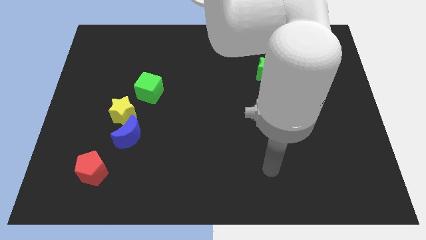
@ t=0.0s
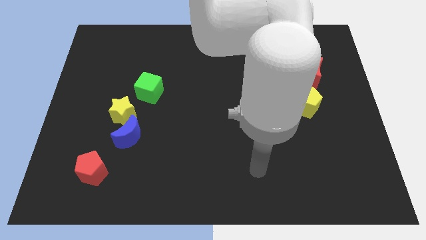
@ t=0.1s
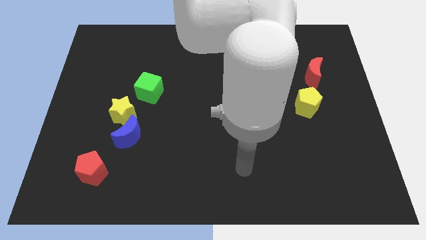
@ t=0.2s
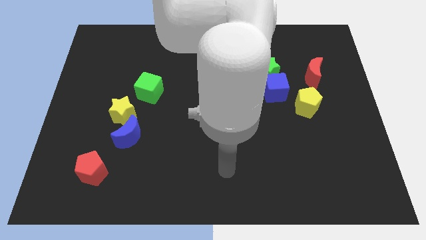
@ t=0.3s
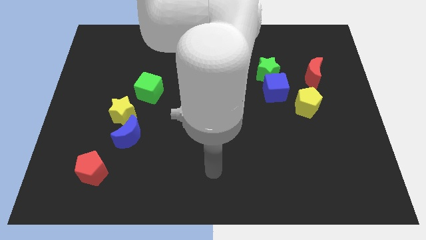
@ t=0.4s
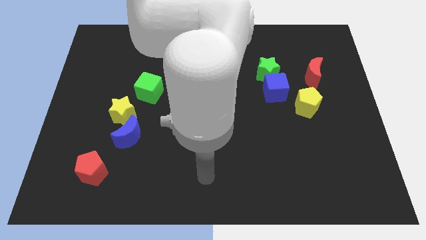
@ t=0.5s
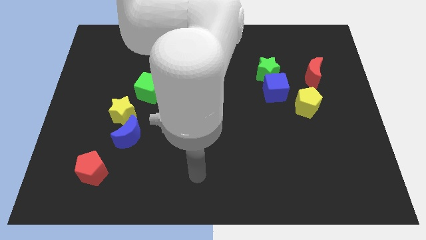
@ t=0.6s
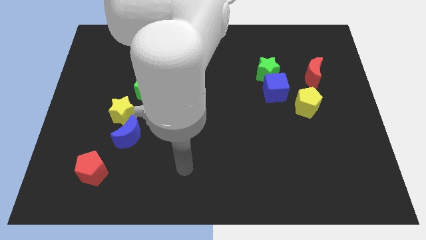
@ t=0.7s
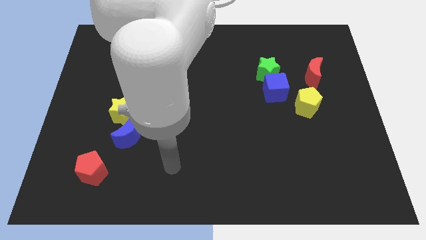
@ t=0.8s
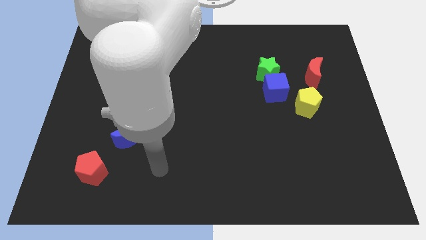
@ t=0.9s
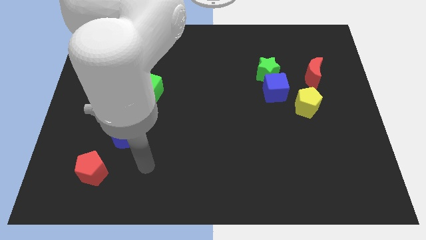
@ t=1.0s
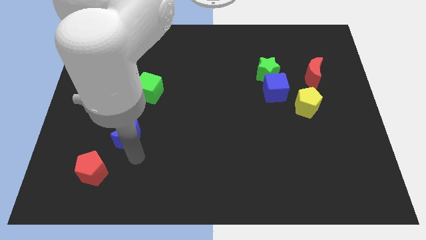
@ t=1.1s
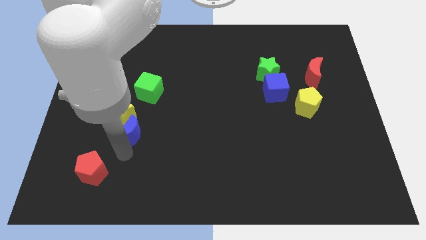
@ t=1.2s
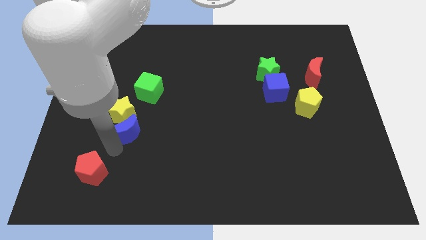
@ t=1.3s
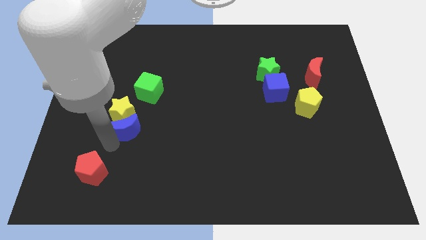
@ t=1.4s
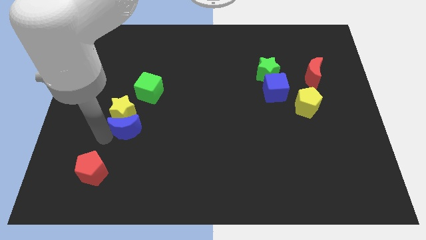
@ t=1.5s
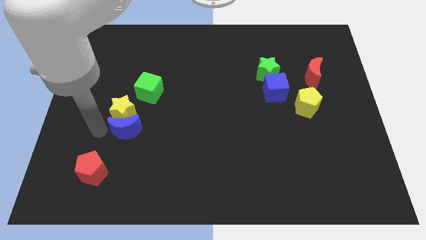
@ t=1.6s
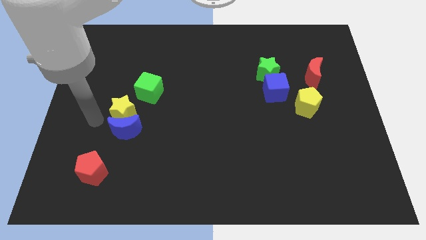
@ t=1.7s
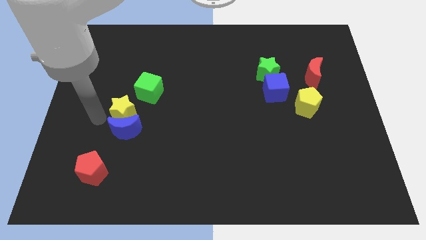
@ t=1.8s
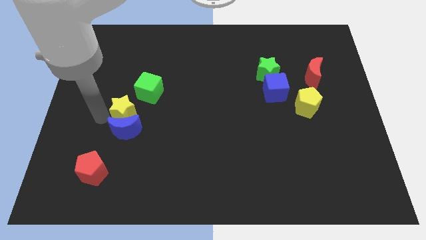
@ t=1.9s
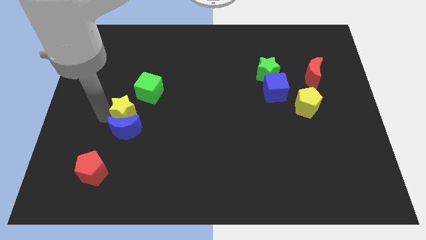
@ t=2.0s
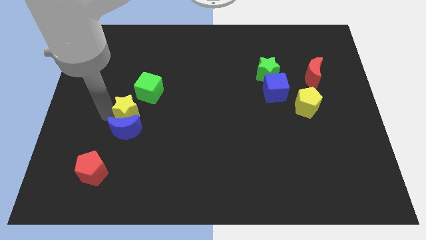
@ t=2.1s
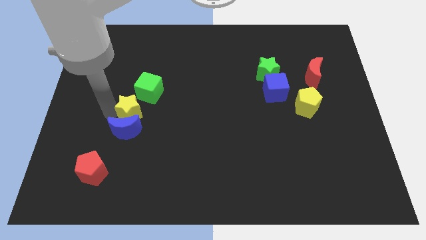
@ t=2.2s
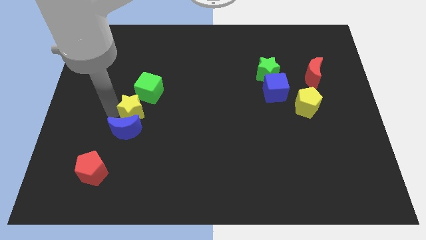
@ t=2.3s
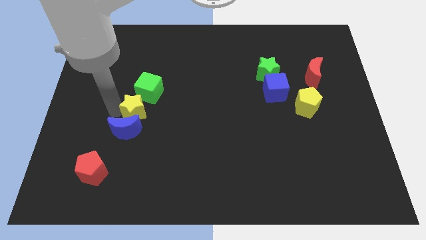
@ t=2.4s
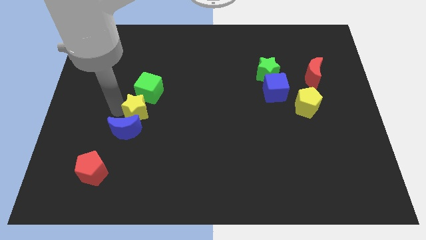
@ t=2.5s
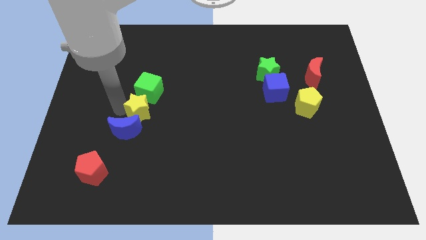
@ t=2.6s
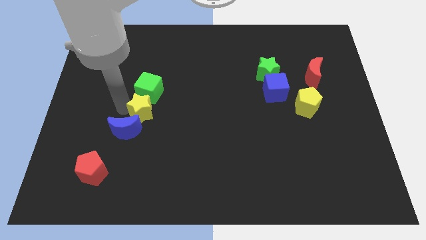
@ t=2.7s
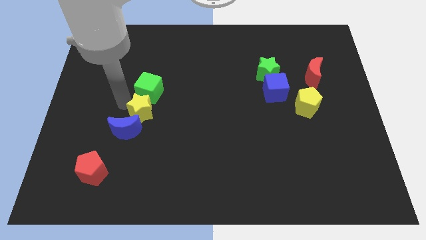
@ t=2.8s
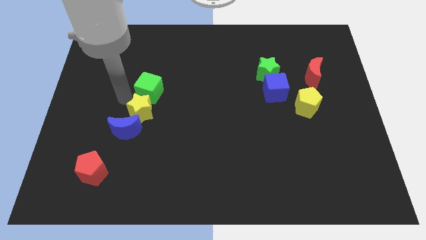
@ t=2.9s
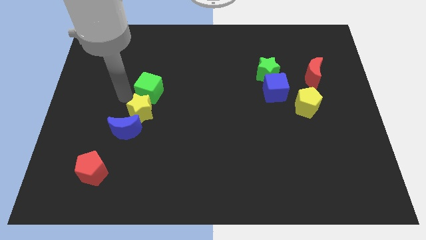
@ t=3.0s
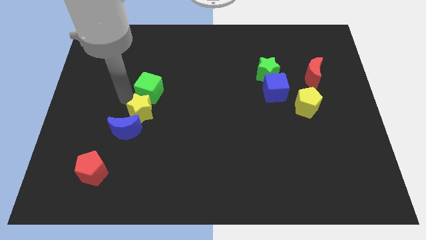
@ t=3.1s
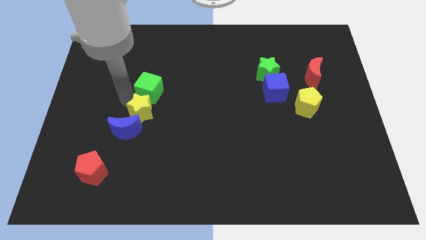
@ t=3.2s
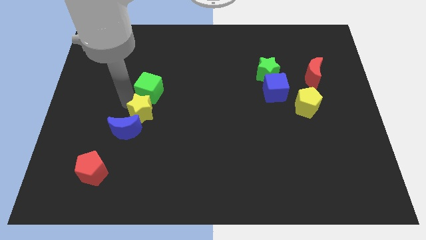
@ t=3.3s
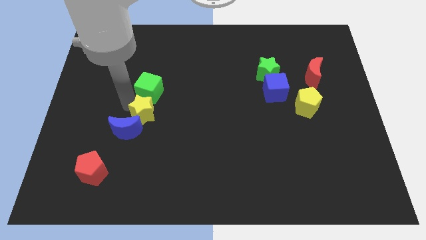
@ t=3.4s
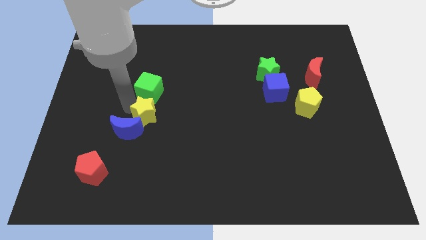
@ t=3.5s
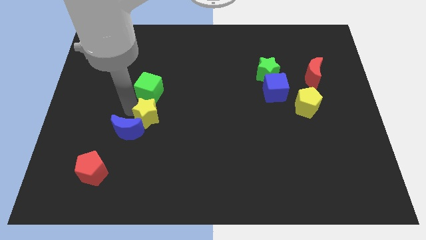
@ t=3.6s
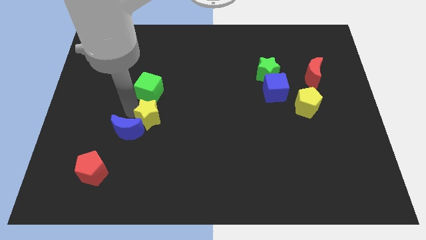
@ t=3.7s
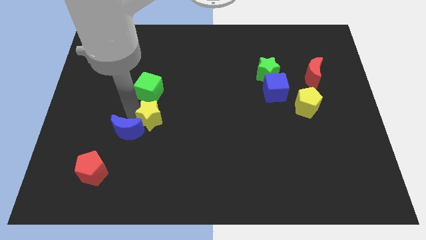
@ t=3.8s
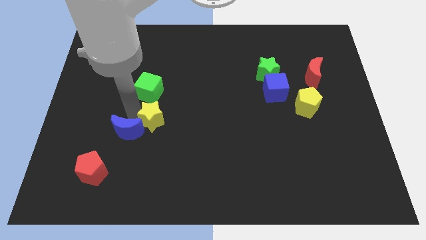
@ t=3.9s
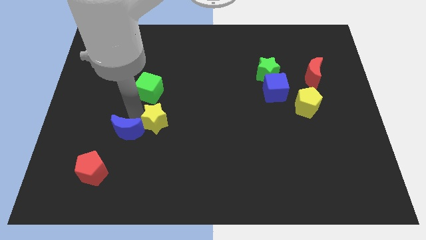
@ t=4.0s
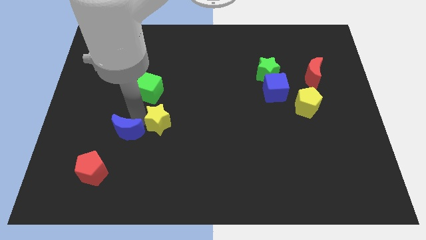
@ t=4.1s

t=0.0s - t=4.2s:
move the yellow star downwards and right a little

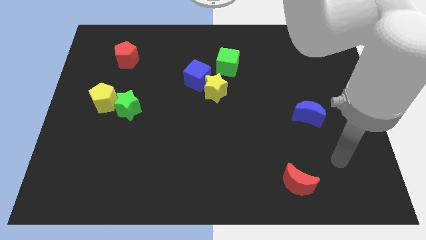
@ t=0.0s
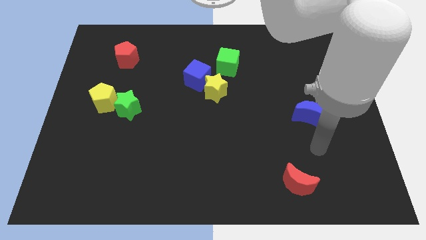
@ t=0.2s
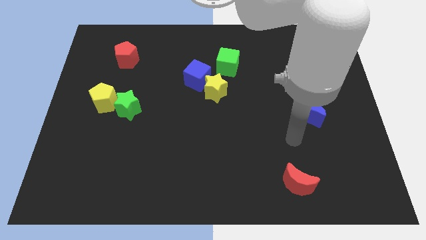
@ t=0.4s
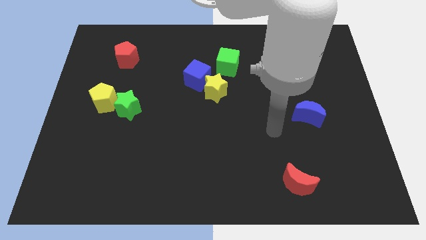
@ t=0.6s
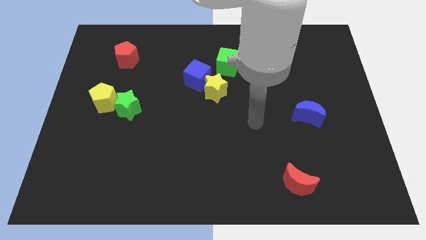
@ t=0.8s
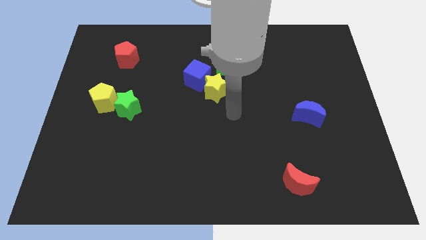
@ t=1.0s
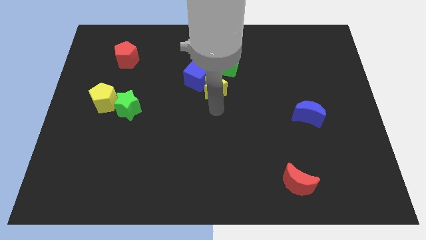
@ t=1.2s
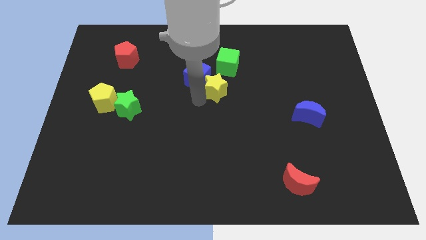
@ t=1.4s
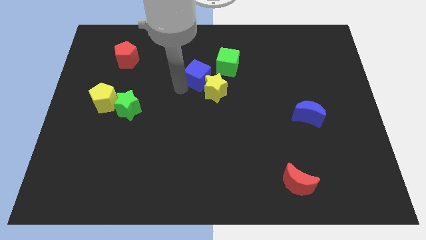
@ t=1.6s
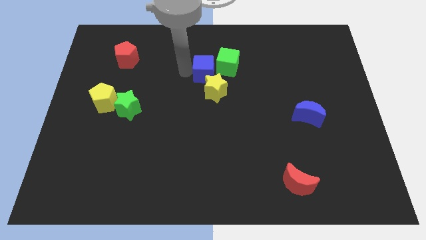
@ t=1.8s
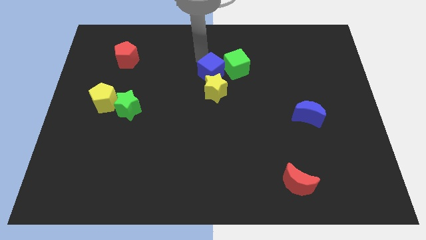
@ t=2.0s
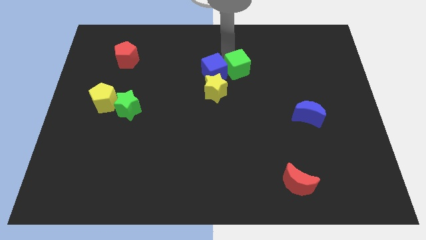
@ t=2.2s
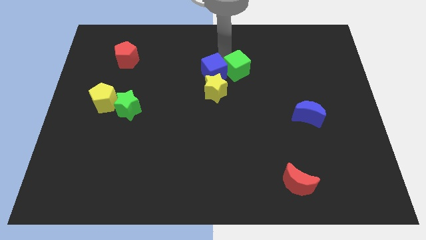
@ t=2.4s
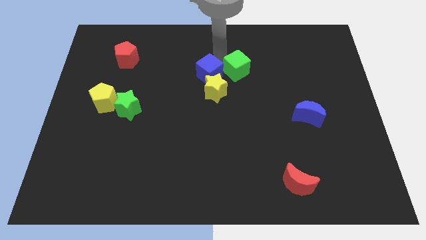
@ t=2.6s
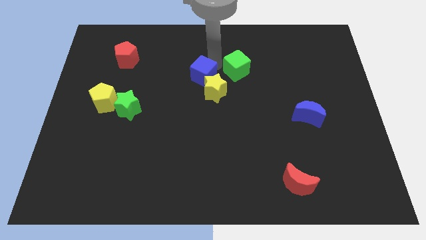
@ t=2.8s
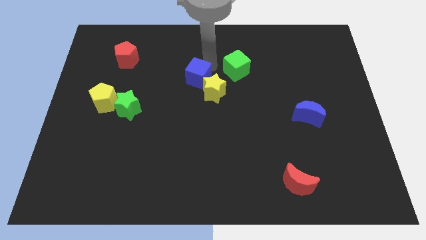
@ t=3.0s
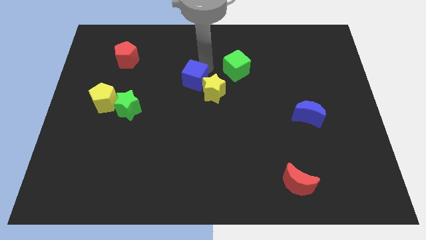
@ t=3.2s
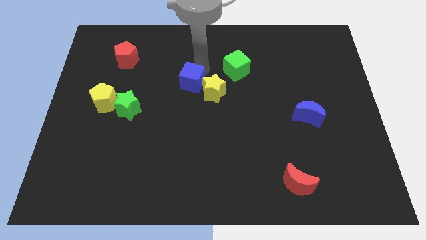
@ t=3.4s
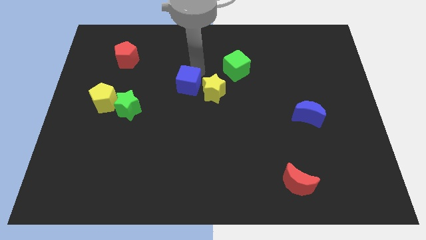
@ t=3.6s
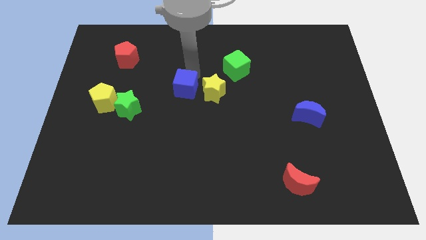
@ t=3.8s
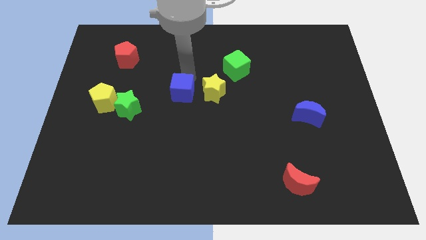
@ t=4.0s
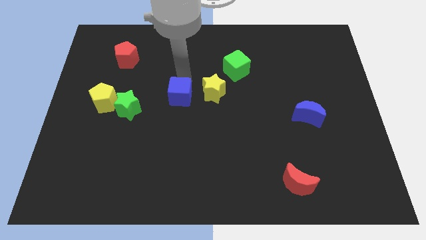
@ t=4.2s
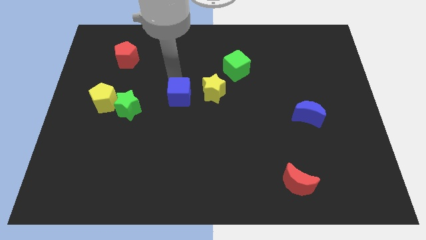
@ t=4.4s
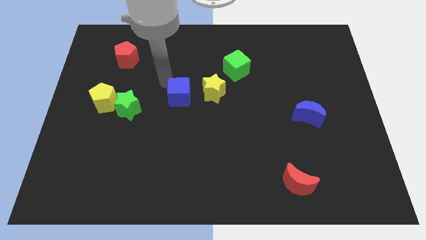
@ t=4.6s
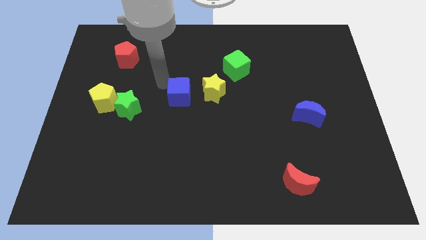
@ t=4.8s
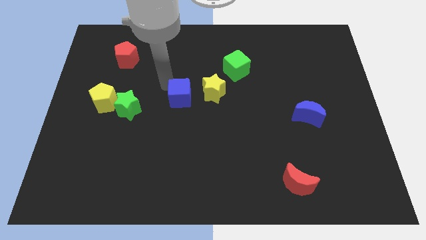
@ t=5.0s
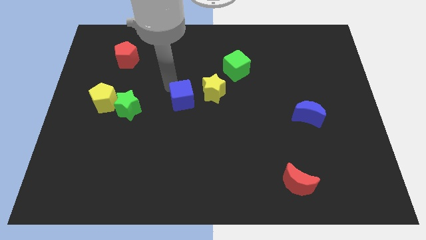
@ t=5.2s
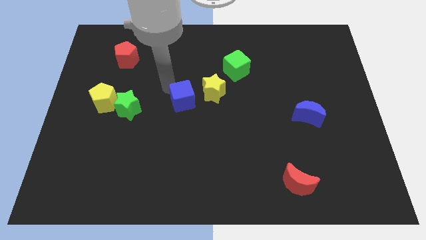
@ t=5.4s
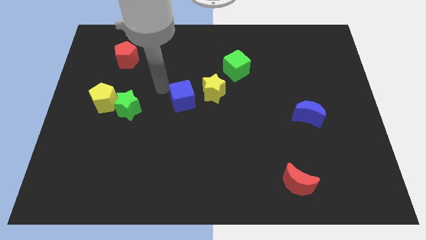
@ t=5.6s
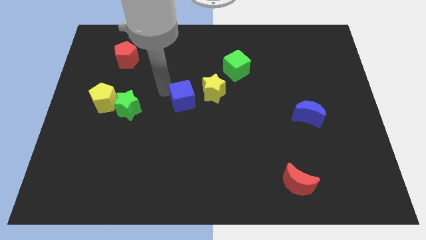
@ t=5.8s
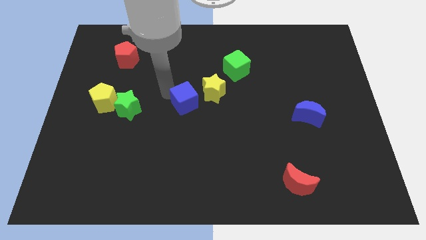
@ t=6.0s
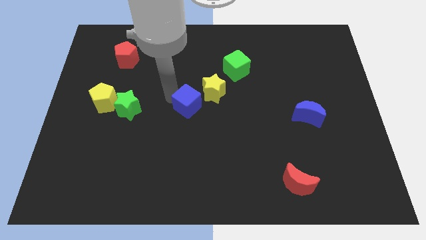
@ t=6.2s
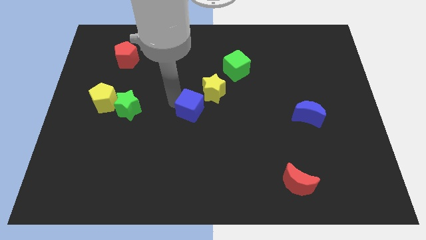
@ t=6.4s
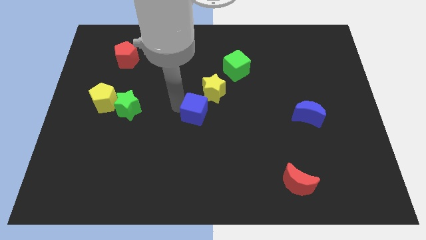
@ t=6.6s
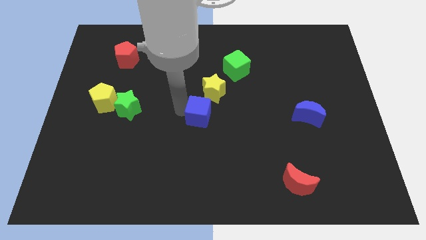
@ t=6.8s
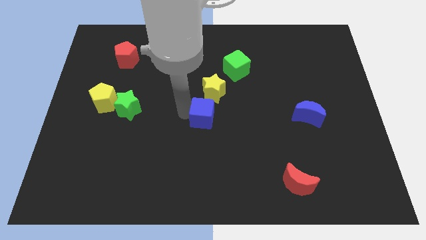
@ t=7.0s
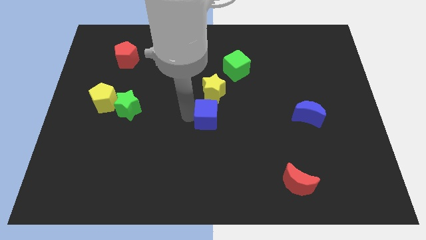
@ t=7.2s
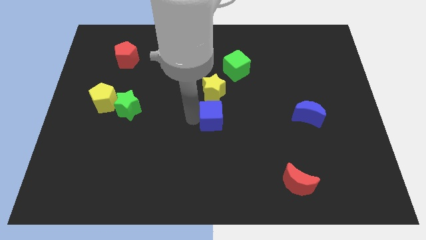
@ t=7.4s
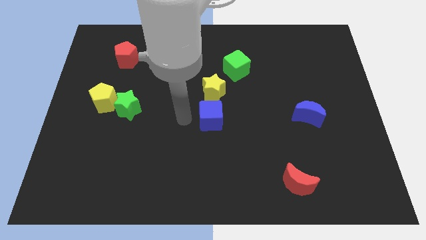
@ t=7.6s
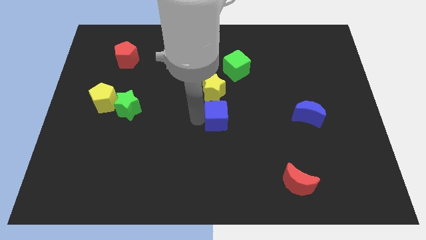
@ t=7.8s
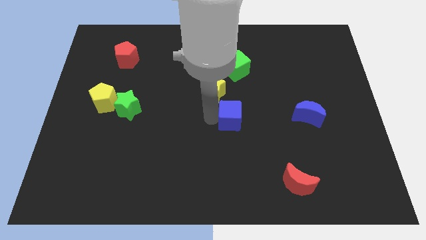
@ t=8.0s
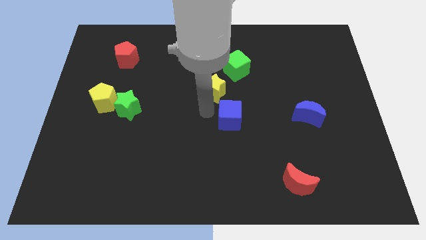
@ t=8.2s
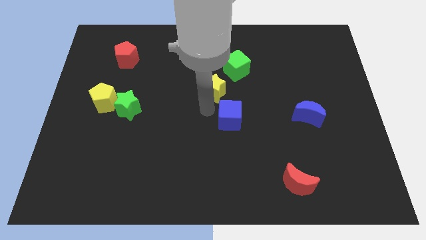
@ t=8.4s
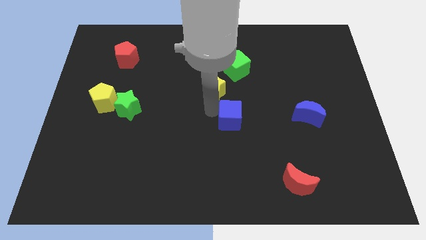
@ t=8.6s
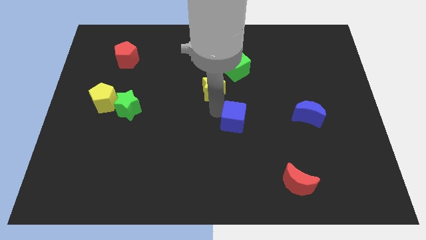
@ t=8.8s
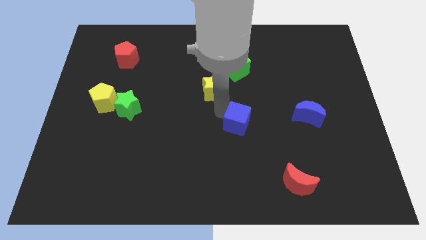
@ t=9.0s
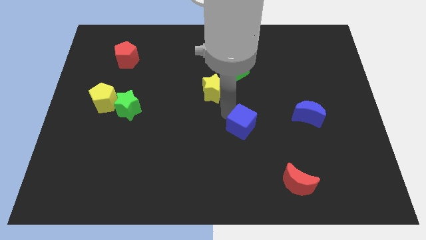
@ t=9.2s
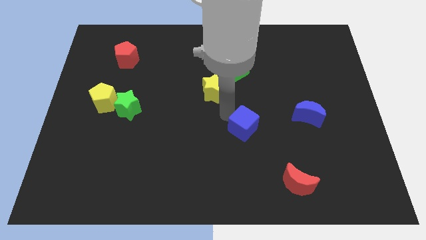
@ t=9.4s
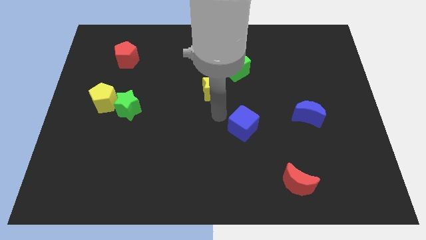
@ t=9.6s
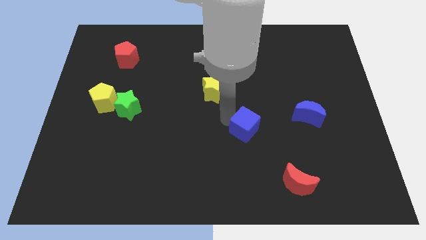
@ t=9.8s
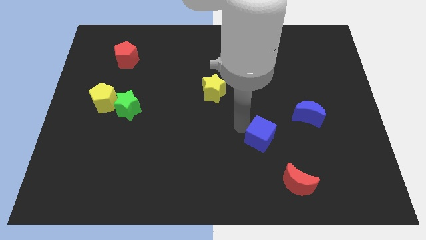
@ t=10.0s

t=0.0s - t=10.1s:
push the blue cube downwards and to the right diagonally
